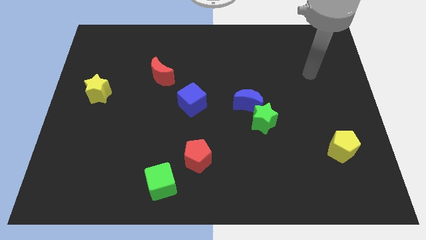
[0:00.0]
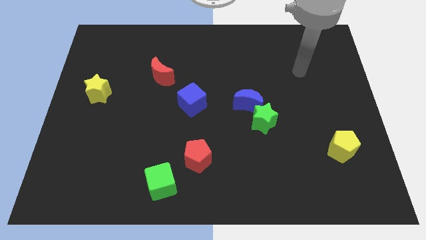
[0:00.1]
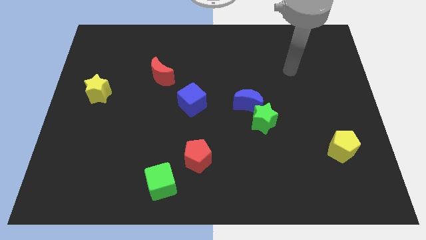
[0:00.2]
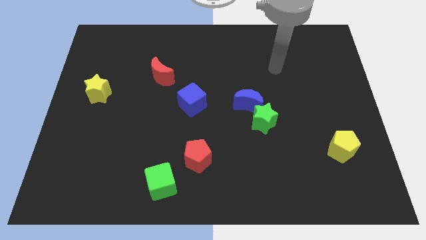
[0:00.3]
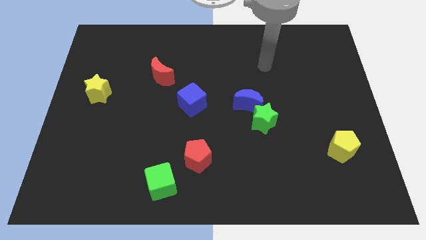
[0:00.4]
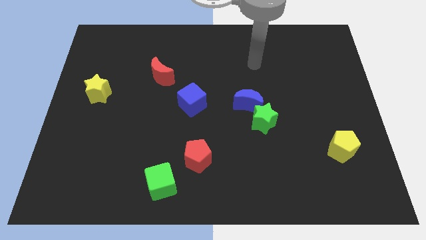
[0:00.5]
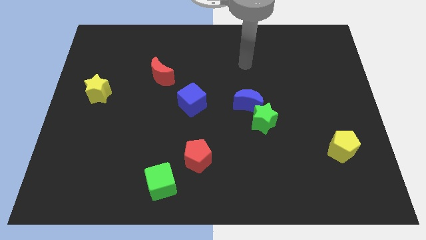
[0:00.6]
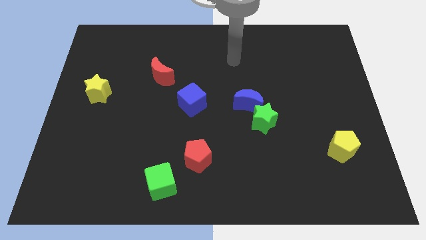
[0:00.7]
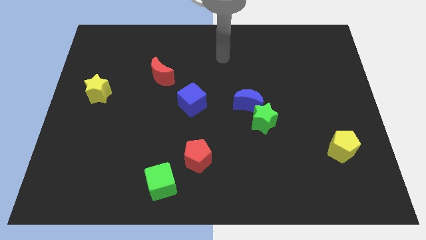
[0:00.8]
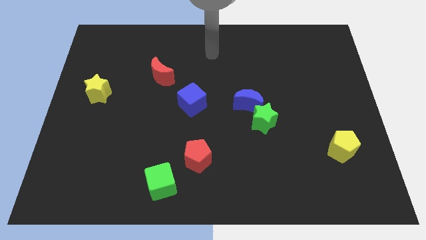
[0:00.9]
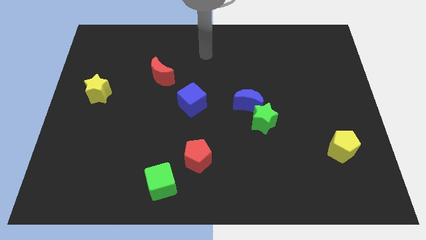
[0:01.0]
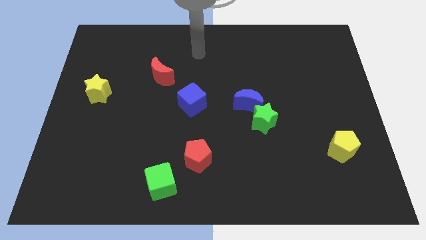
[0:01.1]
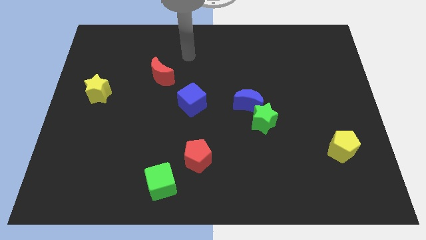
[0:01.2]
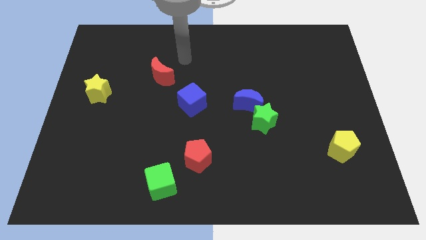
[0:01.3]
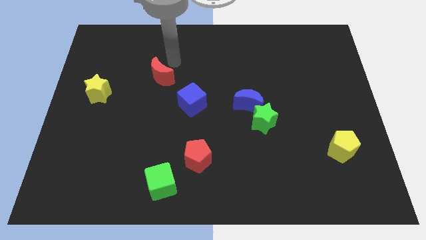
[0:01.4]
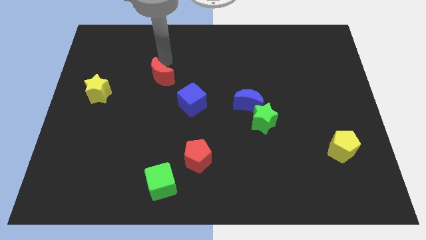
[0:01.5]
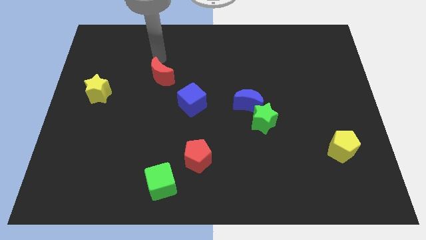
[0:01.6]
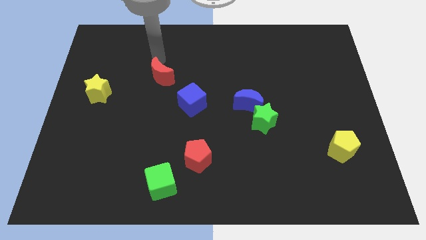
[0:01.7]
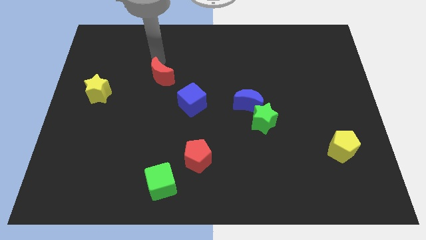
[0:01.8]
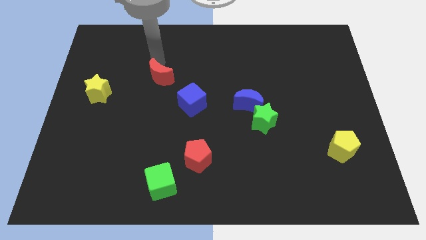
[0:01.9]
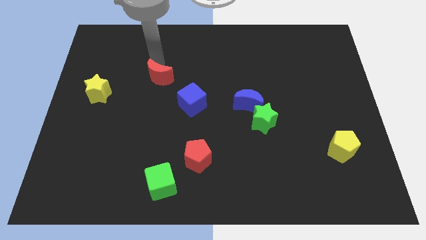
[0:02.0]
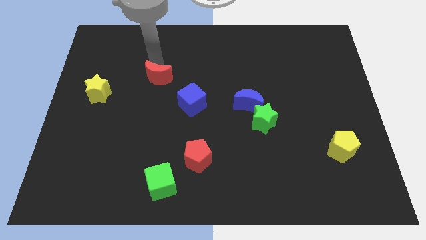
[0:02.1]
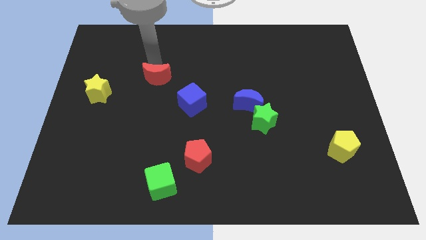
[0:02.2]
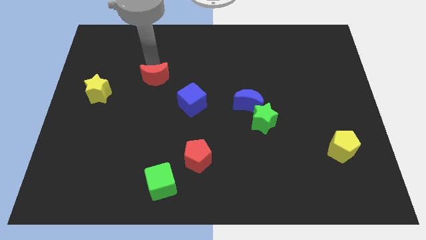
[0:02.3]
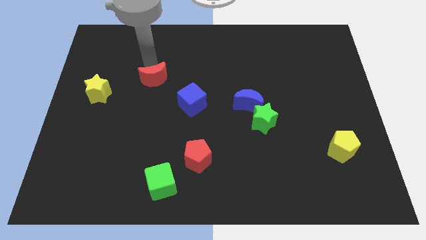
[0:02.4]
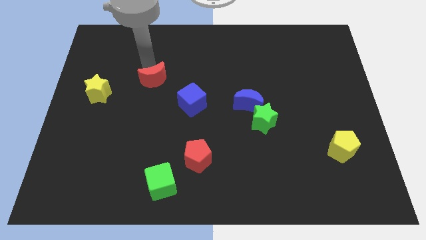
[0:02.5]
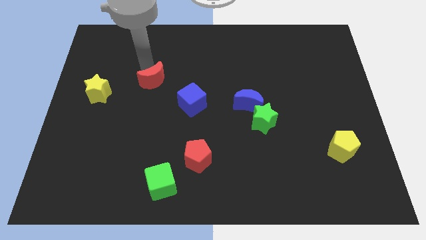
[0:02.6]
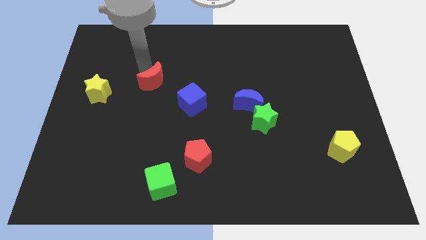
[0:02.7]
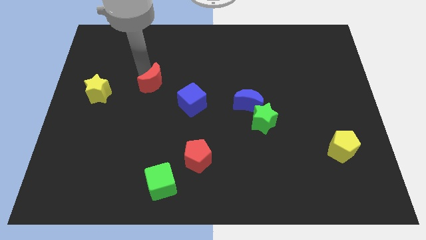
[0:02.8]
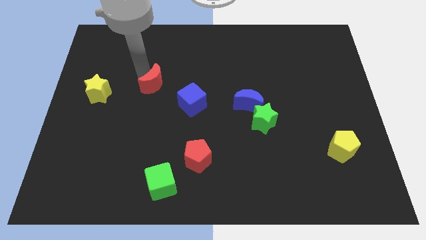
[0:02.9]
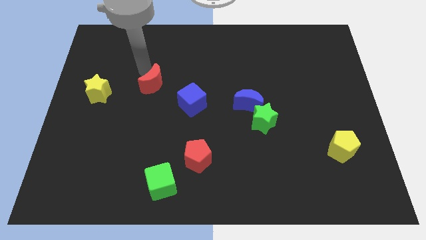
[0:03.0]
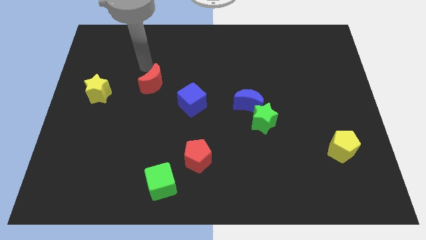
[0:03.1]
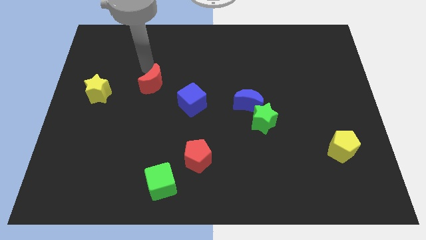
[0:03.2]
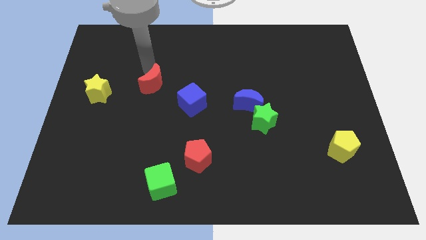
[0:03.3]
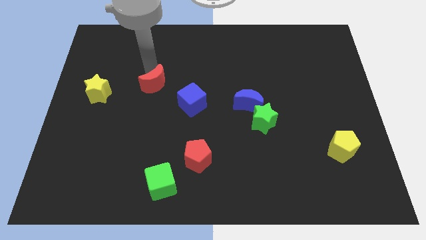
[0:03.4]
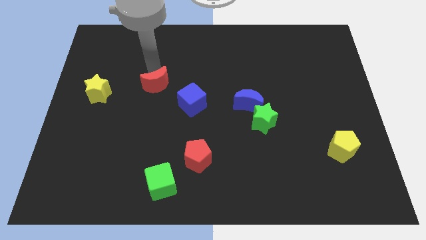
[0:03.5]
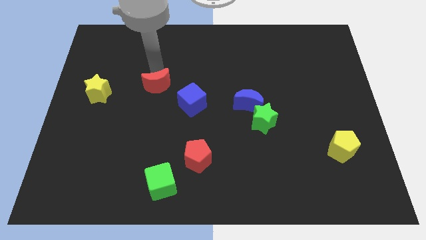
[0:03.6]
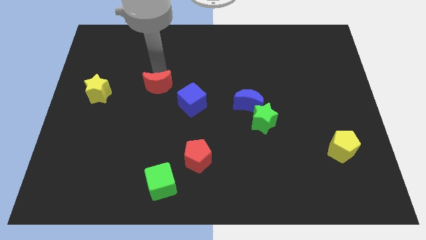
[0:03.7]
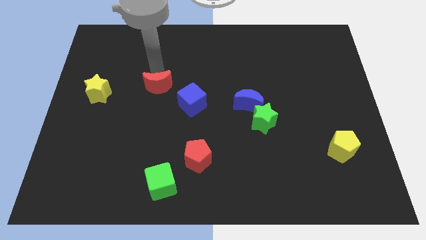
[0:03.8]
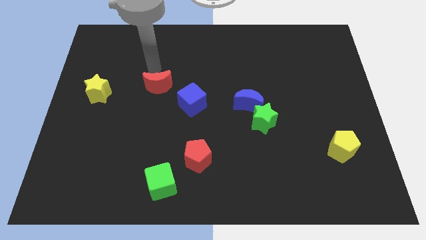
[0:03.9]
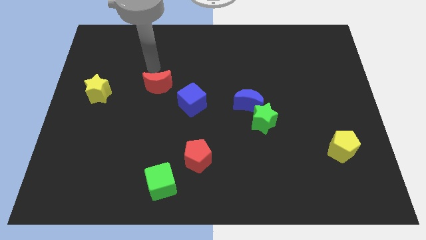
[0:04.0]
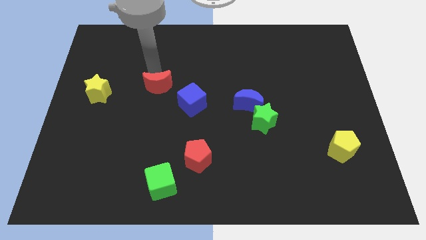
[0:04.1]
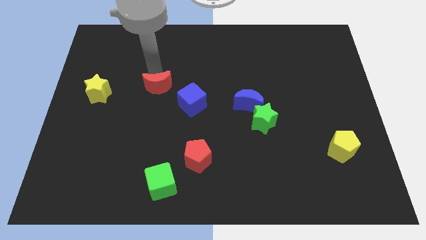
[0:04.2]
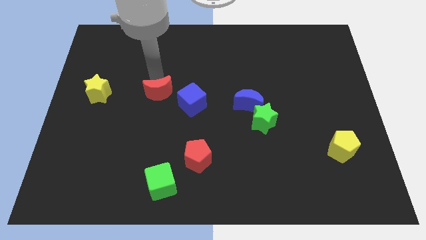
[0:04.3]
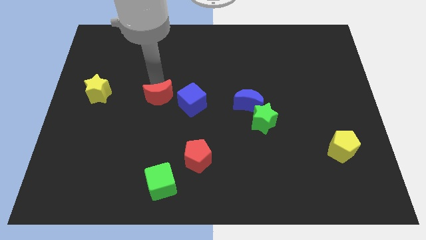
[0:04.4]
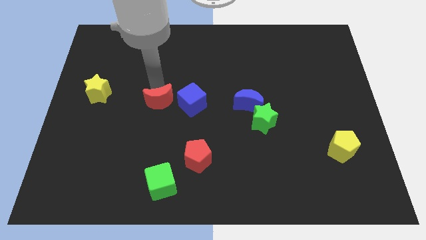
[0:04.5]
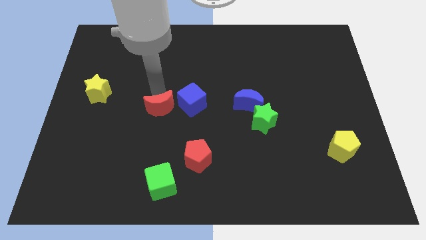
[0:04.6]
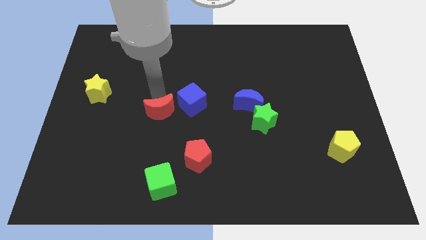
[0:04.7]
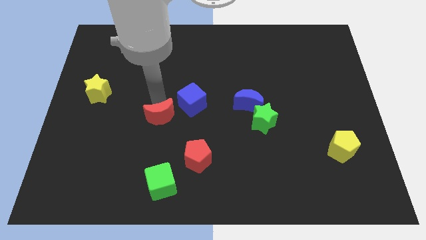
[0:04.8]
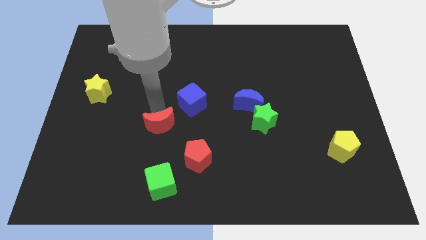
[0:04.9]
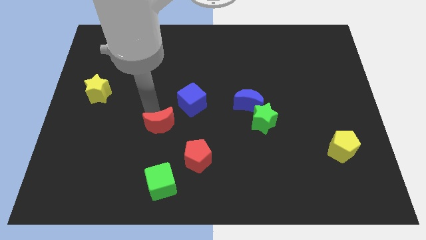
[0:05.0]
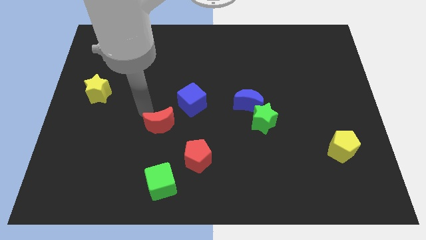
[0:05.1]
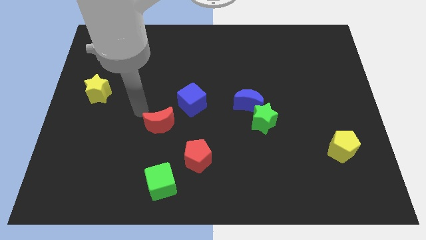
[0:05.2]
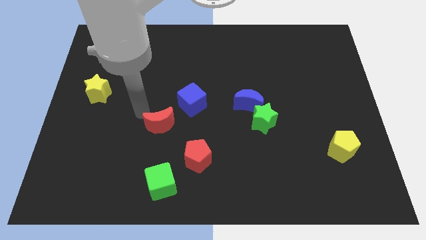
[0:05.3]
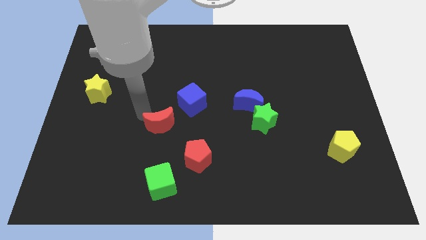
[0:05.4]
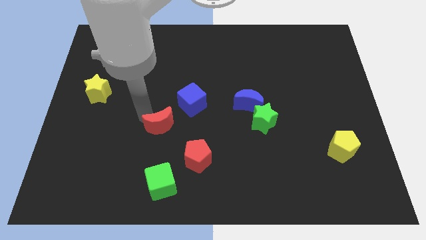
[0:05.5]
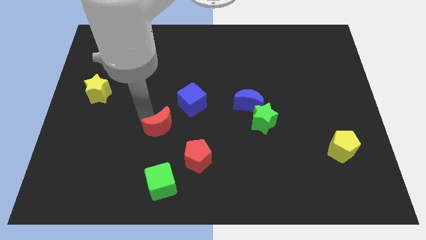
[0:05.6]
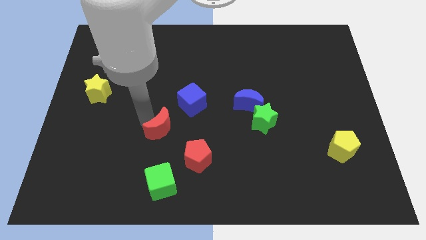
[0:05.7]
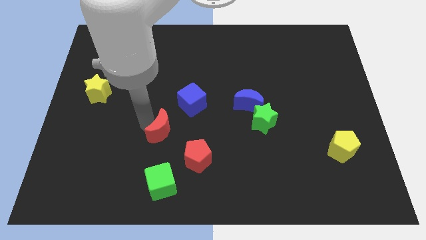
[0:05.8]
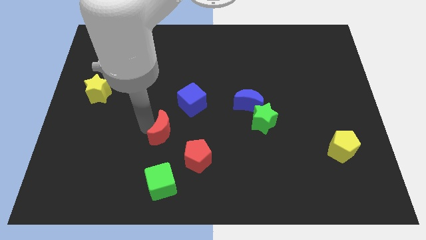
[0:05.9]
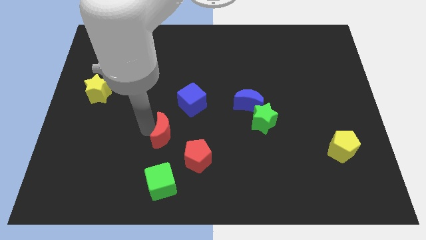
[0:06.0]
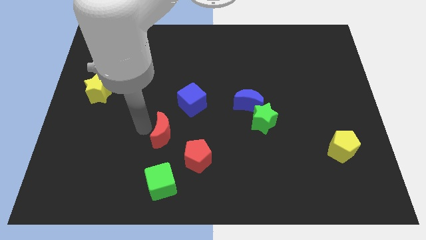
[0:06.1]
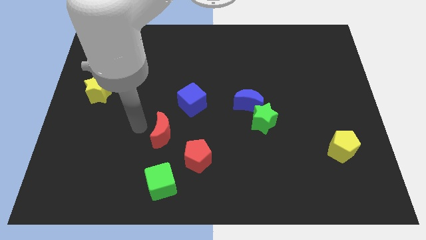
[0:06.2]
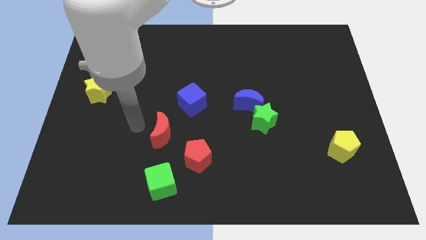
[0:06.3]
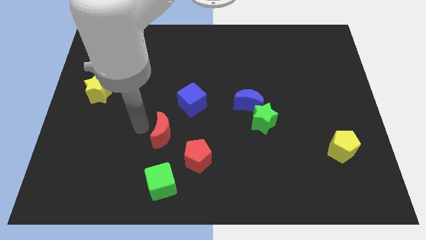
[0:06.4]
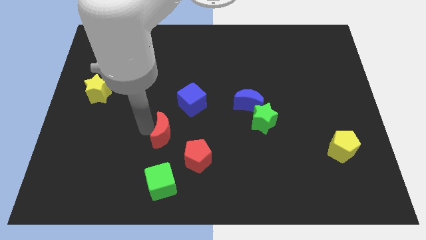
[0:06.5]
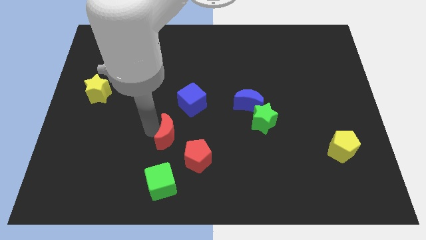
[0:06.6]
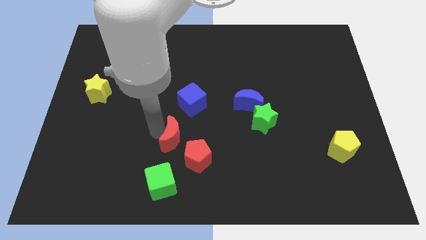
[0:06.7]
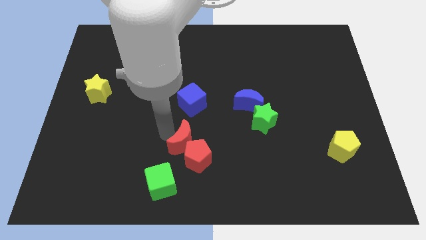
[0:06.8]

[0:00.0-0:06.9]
slide the red moon towards the red pentagon

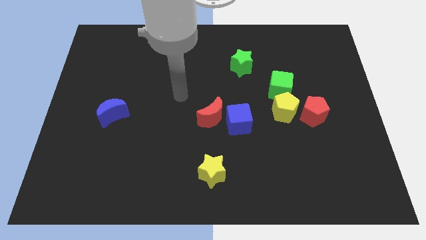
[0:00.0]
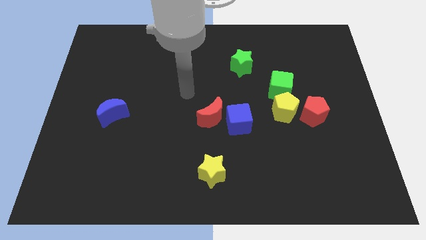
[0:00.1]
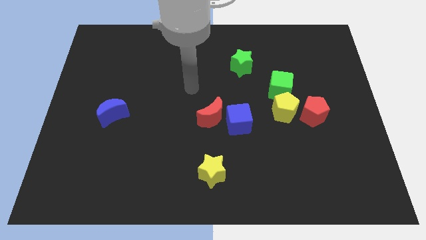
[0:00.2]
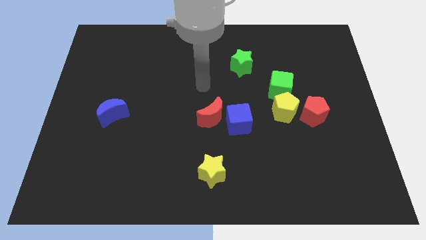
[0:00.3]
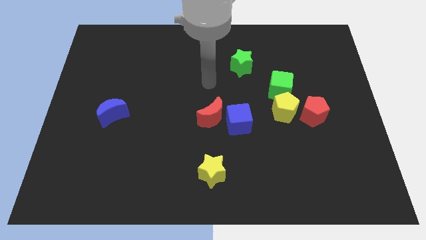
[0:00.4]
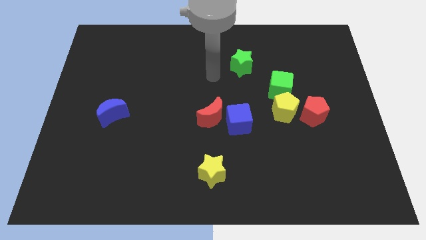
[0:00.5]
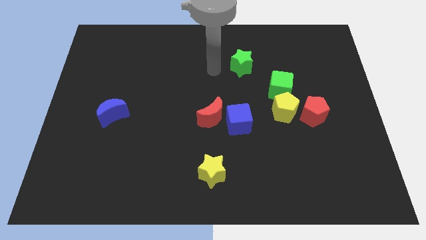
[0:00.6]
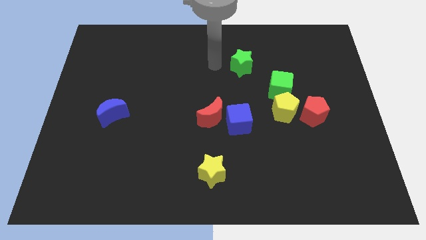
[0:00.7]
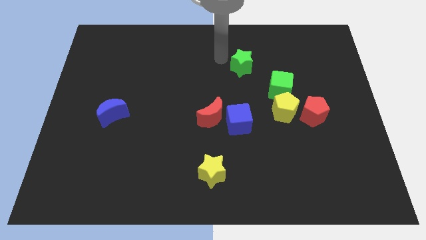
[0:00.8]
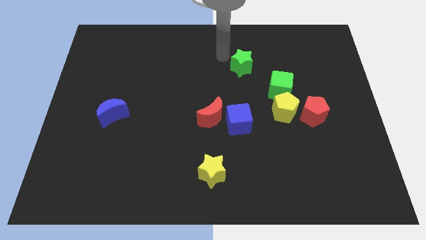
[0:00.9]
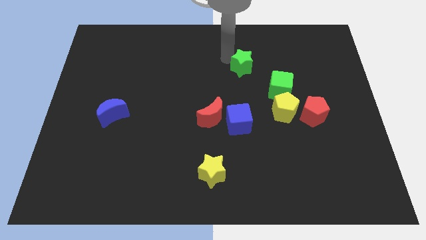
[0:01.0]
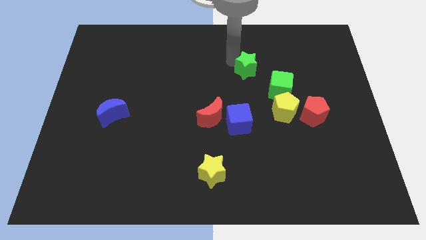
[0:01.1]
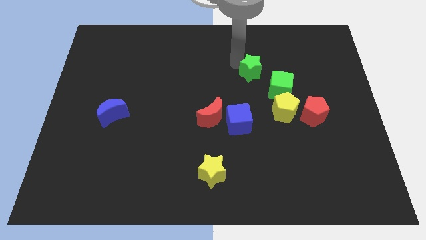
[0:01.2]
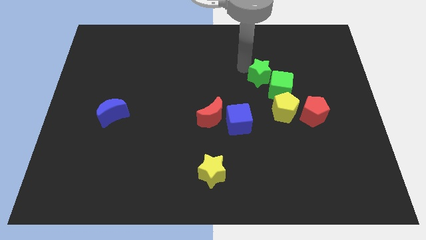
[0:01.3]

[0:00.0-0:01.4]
slide the green star close to the green cube

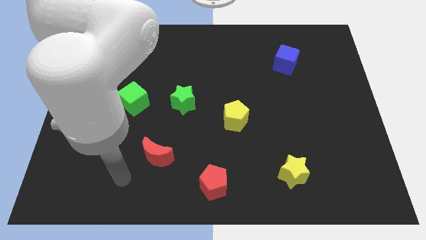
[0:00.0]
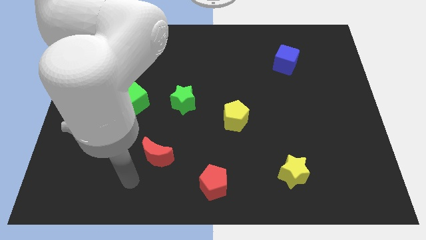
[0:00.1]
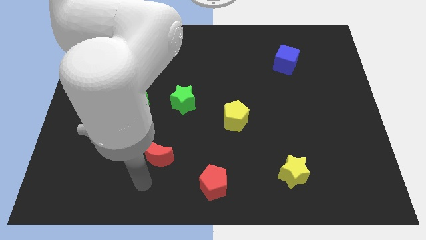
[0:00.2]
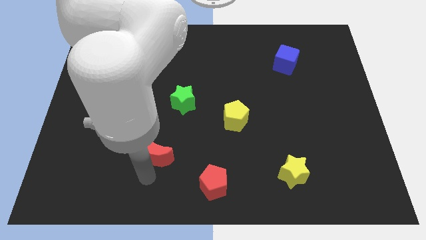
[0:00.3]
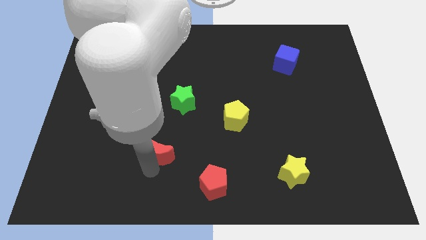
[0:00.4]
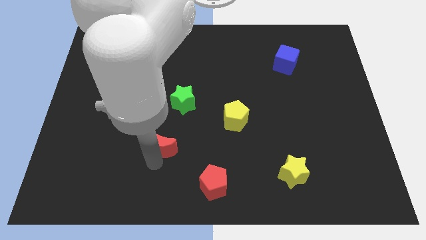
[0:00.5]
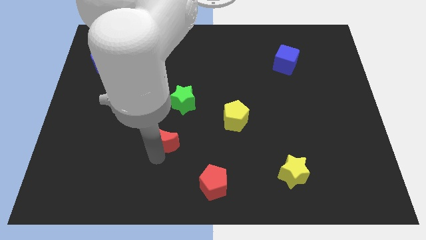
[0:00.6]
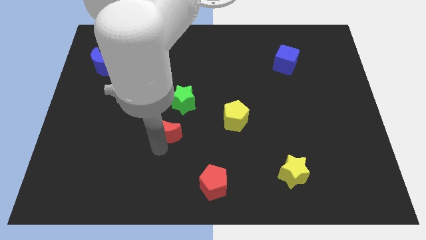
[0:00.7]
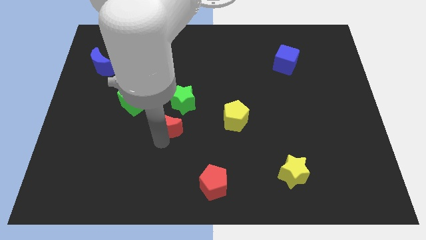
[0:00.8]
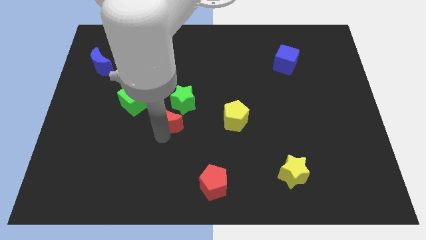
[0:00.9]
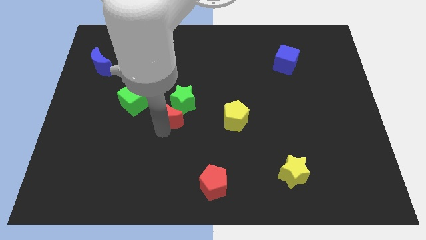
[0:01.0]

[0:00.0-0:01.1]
slide the red moon close to the green star
